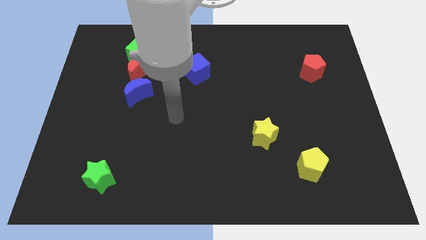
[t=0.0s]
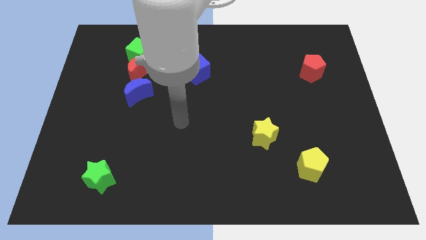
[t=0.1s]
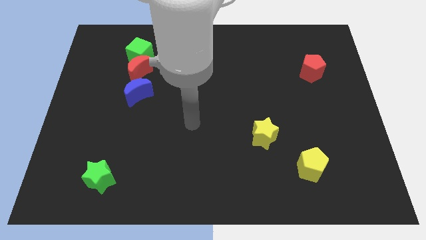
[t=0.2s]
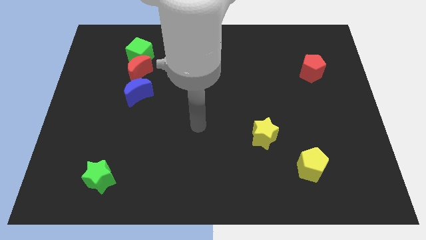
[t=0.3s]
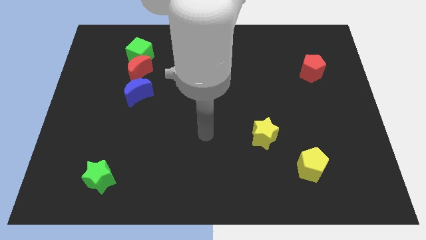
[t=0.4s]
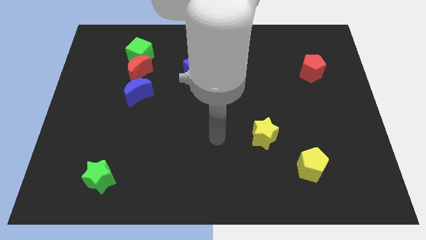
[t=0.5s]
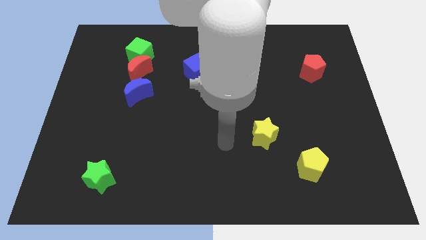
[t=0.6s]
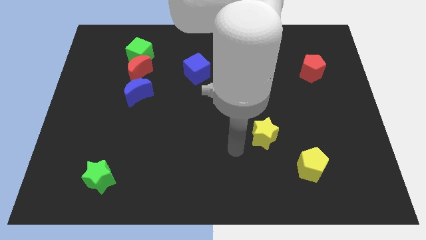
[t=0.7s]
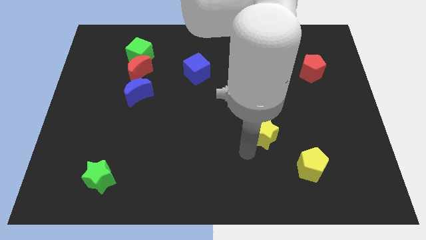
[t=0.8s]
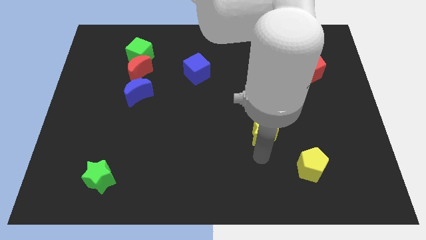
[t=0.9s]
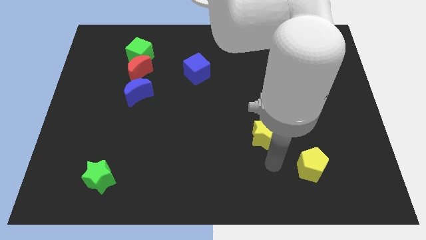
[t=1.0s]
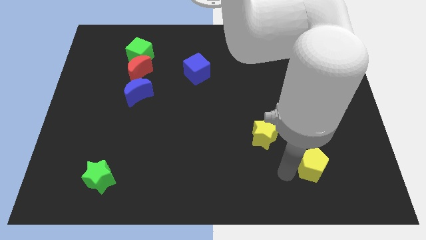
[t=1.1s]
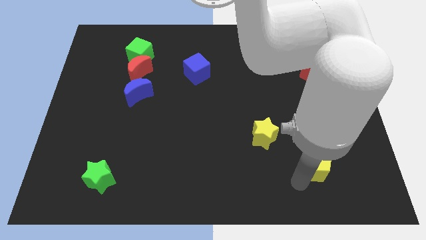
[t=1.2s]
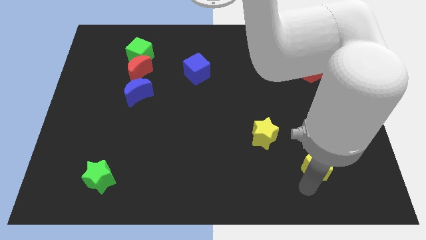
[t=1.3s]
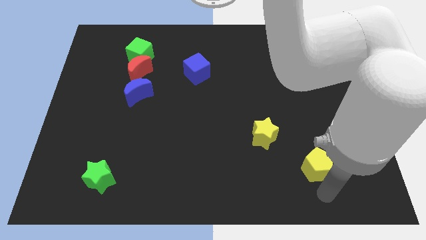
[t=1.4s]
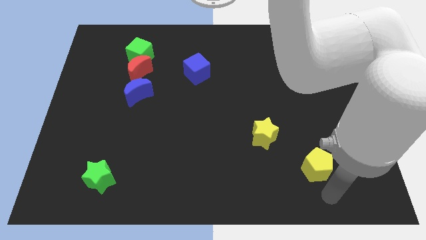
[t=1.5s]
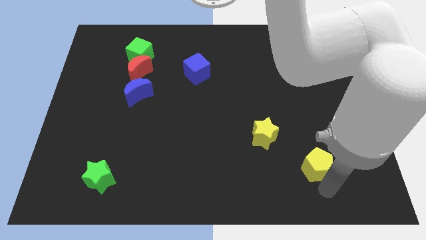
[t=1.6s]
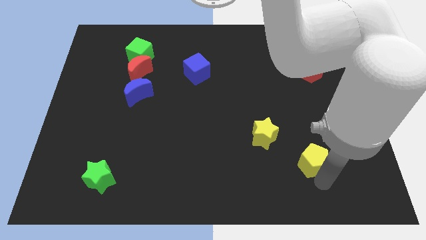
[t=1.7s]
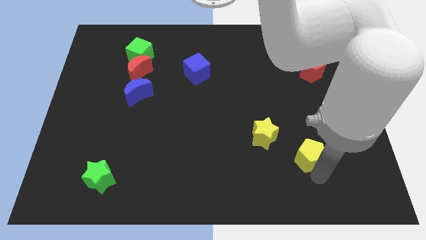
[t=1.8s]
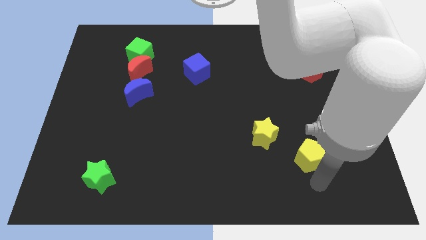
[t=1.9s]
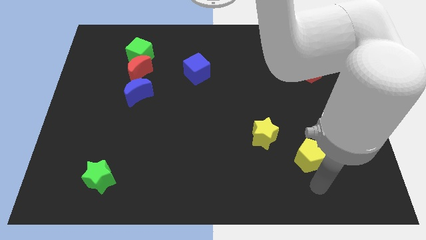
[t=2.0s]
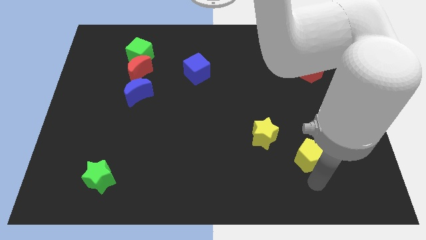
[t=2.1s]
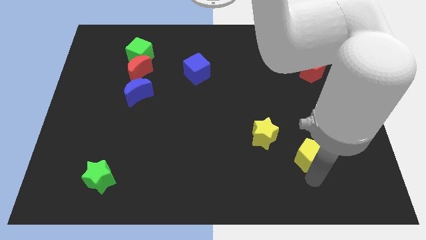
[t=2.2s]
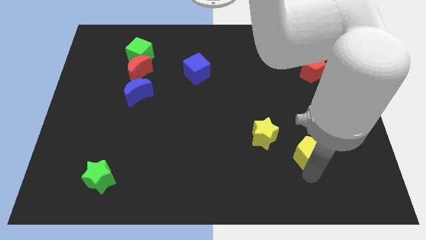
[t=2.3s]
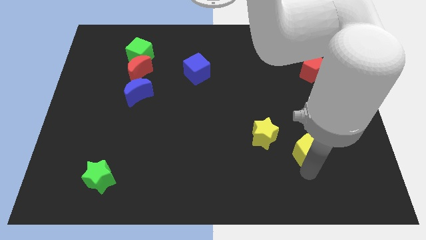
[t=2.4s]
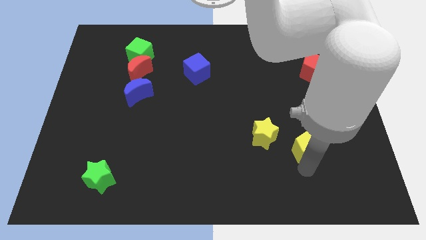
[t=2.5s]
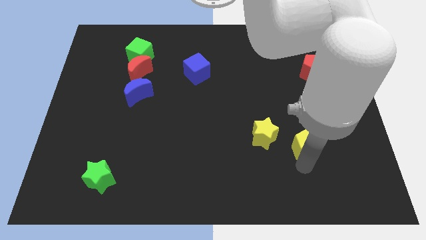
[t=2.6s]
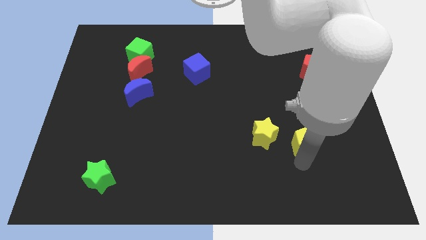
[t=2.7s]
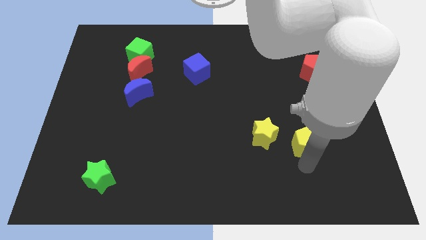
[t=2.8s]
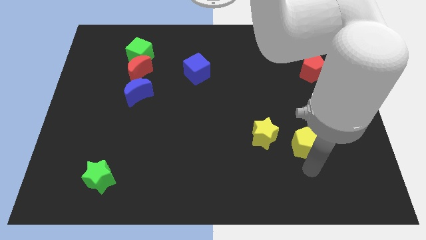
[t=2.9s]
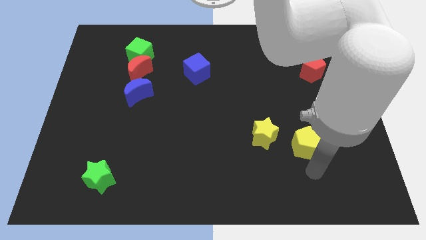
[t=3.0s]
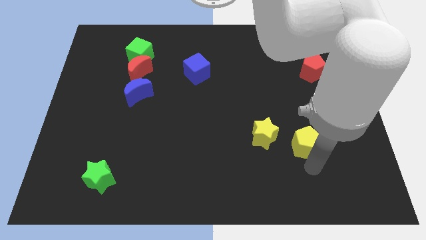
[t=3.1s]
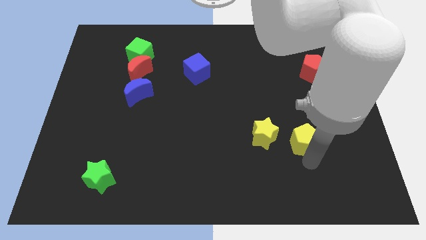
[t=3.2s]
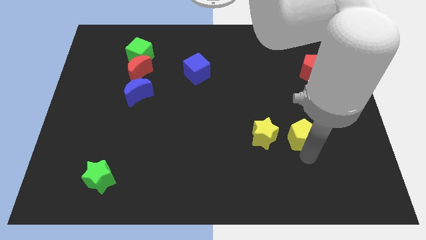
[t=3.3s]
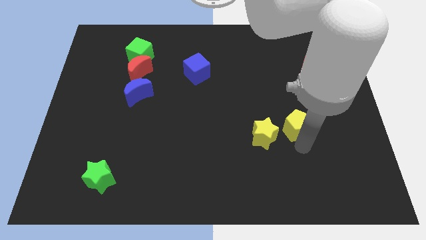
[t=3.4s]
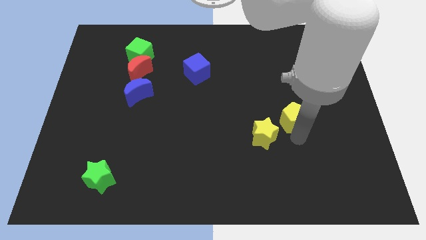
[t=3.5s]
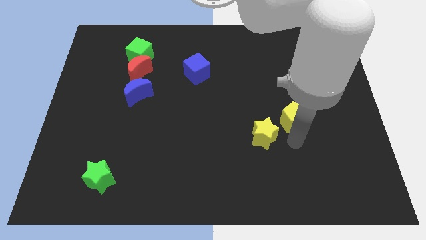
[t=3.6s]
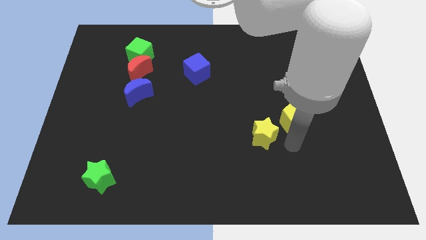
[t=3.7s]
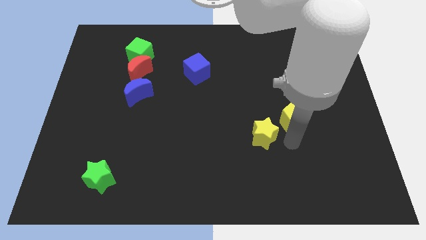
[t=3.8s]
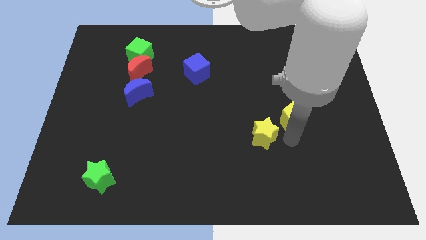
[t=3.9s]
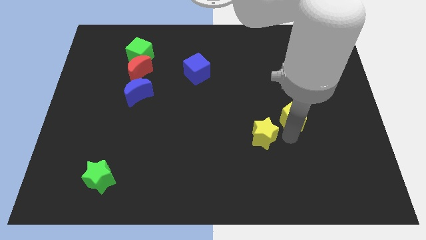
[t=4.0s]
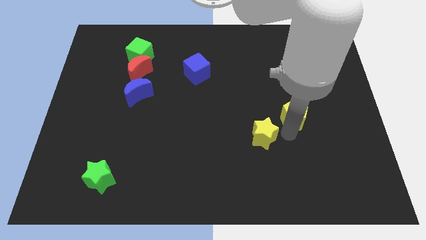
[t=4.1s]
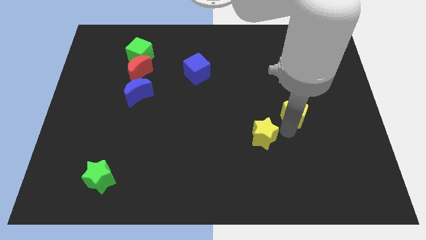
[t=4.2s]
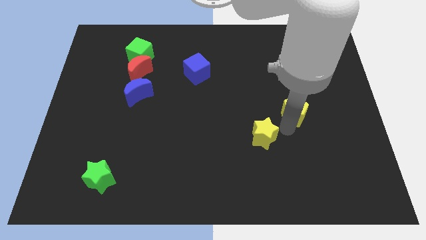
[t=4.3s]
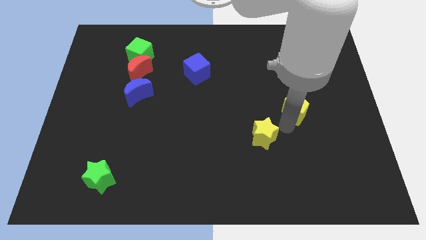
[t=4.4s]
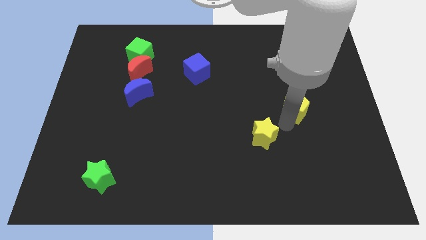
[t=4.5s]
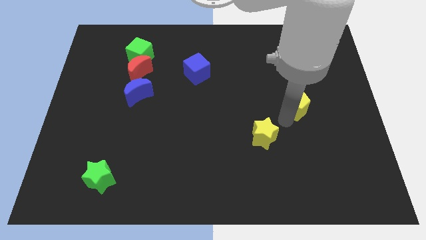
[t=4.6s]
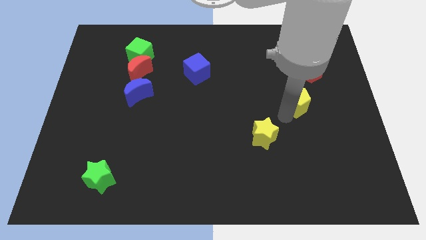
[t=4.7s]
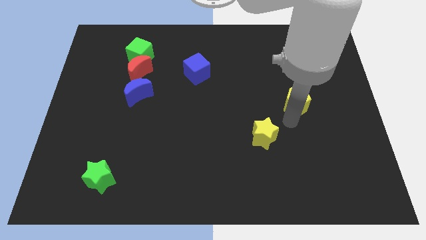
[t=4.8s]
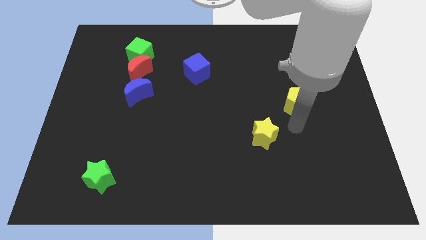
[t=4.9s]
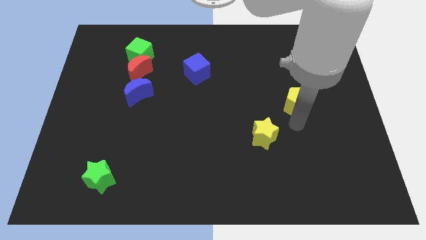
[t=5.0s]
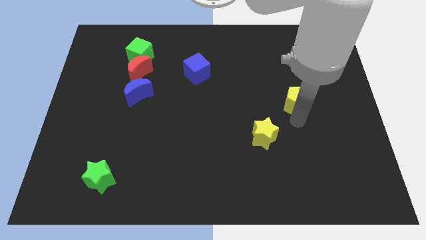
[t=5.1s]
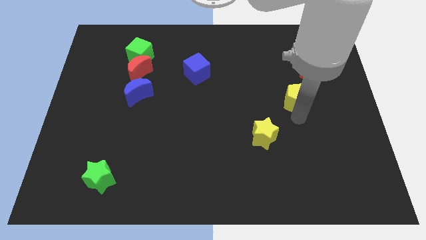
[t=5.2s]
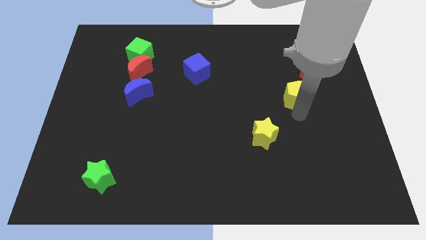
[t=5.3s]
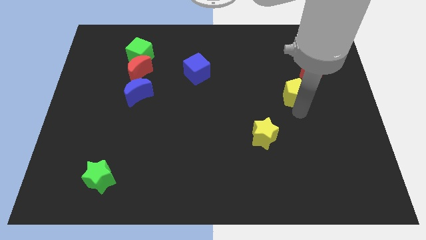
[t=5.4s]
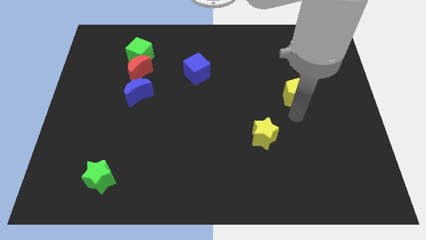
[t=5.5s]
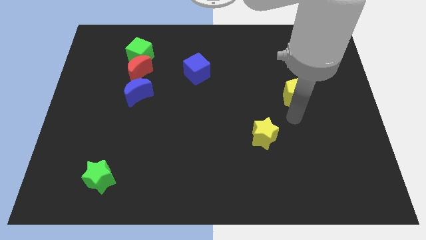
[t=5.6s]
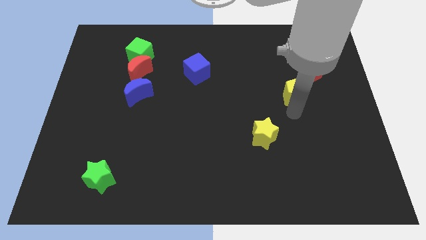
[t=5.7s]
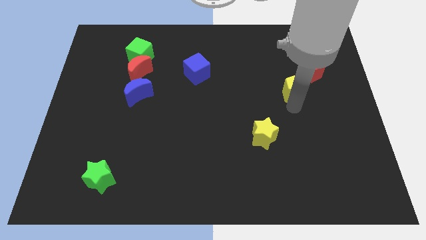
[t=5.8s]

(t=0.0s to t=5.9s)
move the yellow pentagon upwards

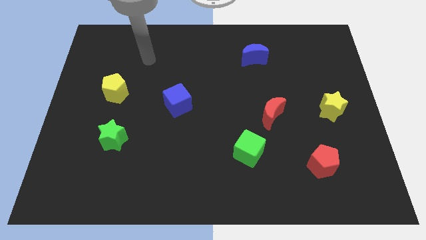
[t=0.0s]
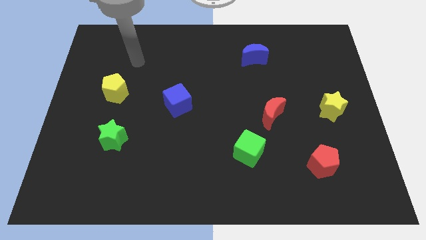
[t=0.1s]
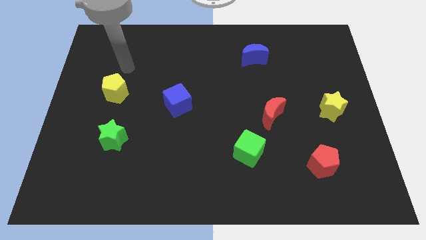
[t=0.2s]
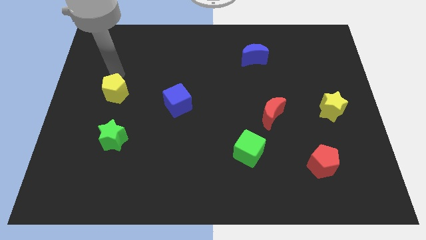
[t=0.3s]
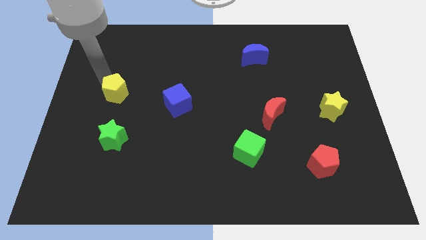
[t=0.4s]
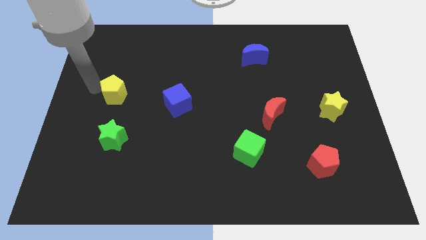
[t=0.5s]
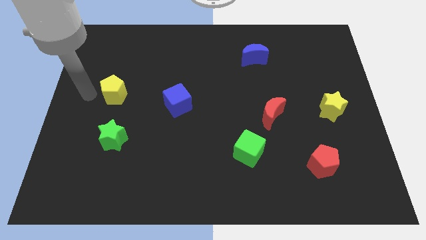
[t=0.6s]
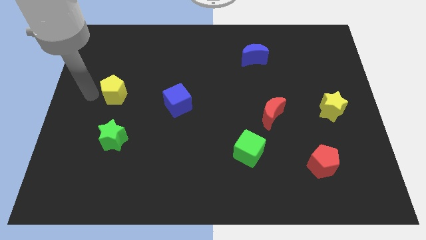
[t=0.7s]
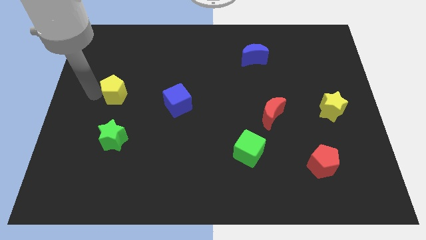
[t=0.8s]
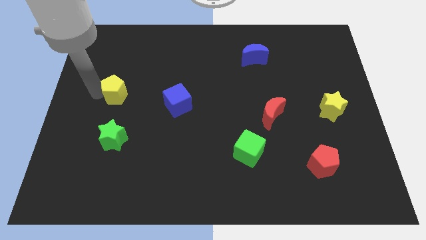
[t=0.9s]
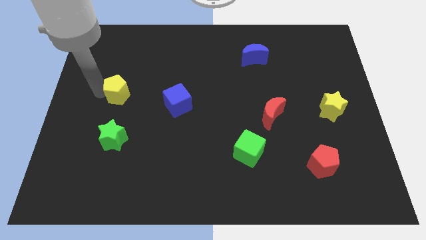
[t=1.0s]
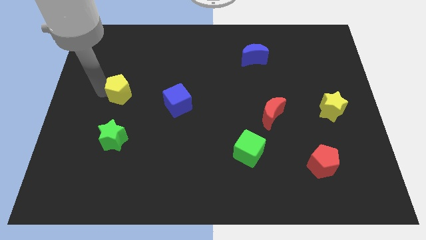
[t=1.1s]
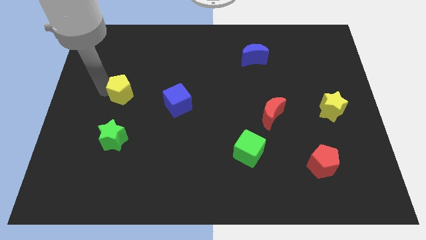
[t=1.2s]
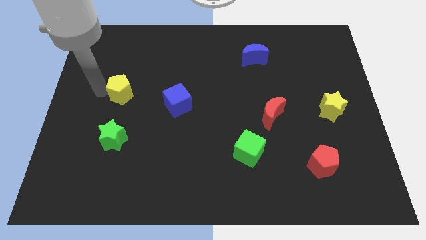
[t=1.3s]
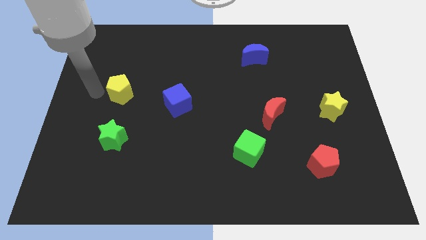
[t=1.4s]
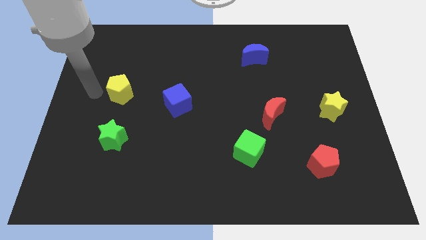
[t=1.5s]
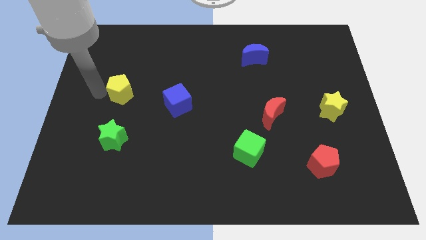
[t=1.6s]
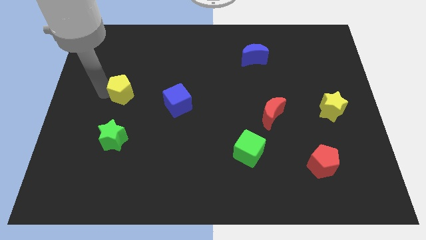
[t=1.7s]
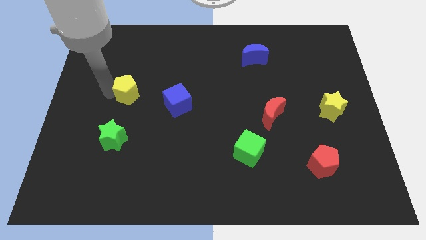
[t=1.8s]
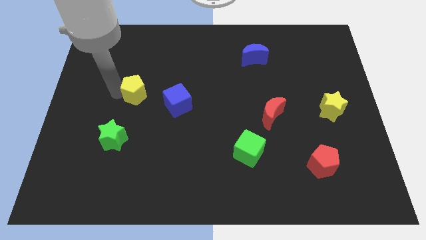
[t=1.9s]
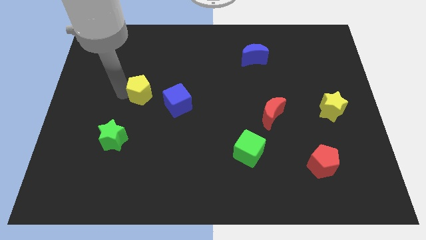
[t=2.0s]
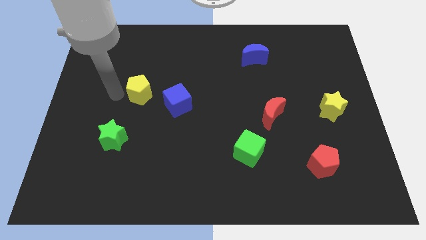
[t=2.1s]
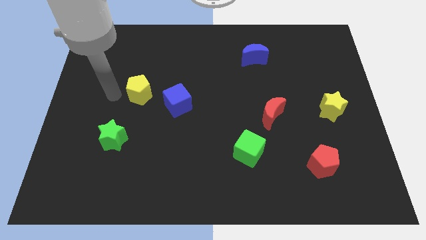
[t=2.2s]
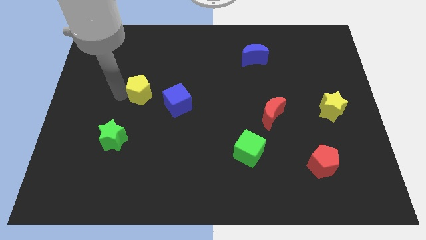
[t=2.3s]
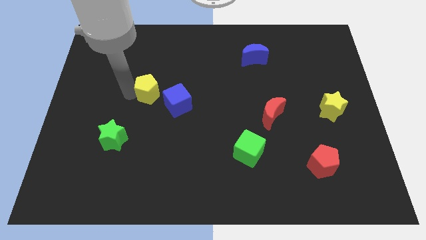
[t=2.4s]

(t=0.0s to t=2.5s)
move the yellow pentagon to the right a little bit
